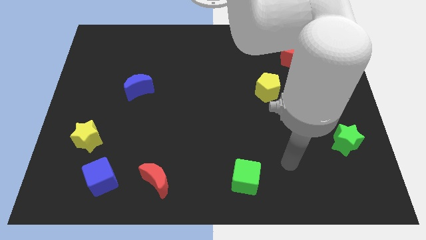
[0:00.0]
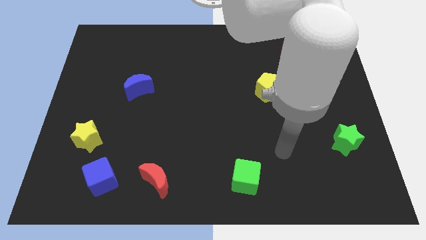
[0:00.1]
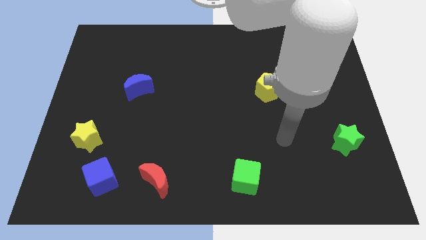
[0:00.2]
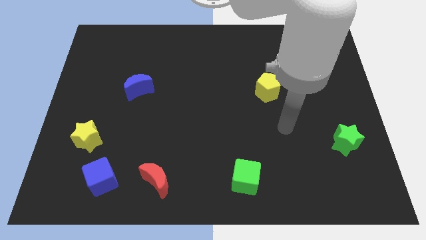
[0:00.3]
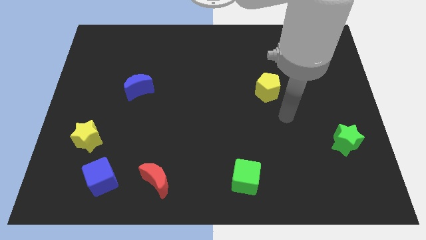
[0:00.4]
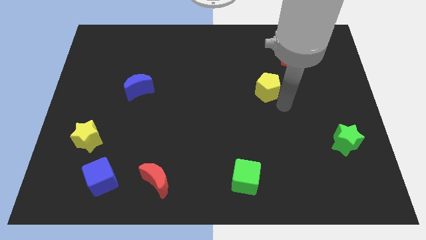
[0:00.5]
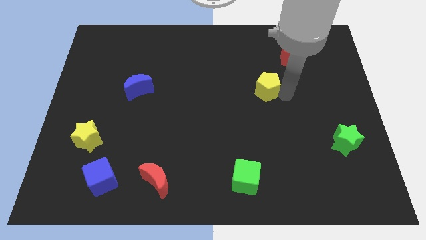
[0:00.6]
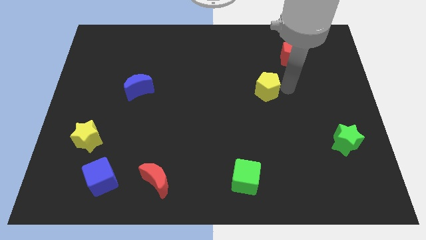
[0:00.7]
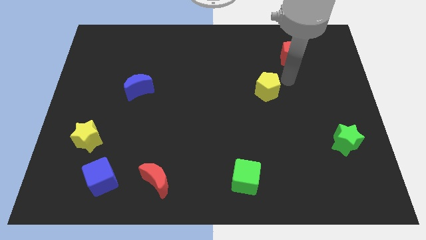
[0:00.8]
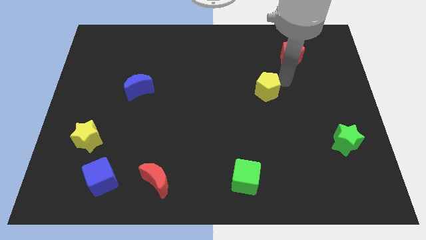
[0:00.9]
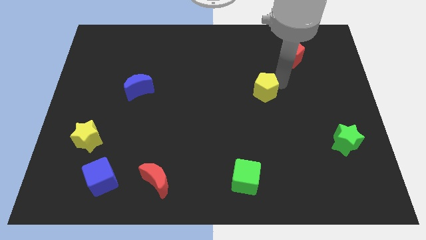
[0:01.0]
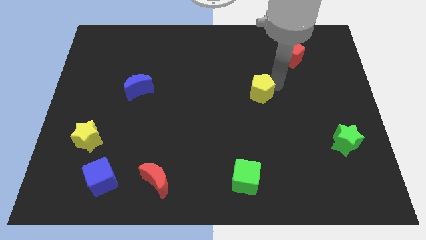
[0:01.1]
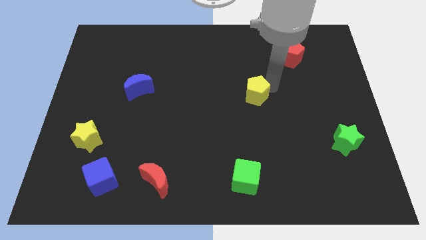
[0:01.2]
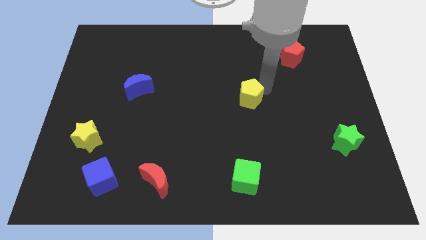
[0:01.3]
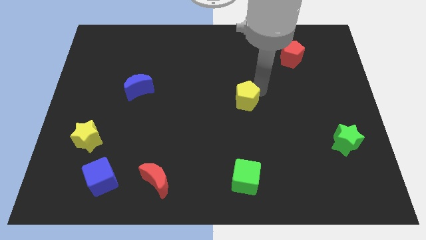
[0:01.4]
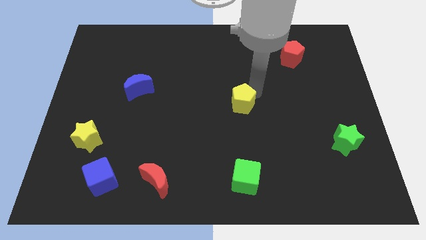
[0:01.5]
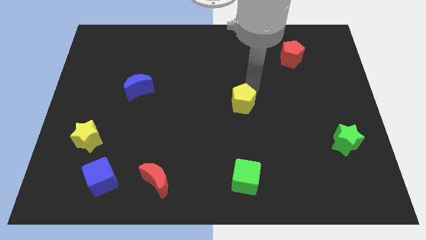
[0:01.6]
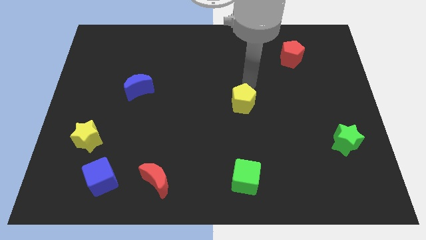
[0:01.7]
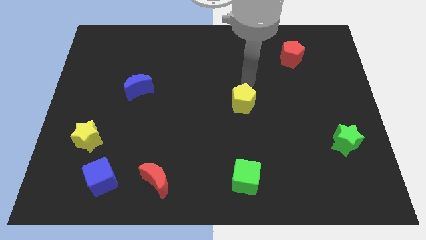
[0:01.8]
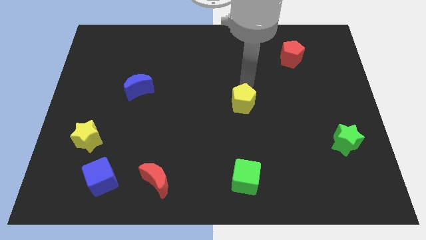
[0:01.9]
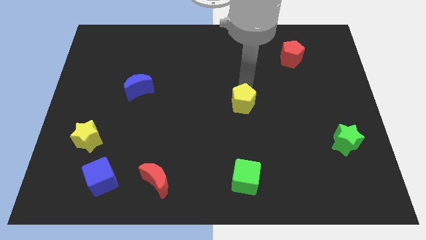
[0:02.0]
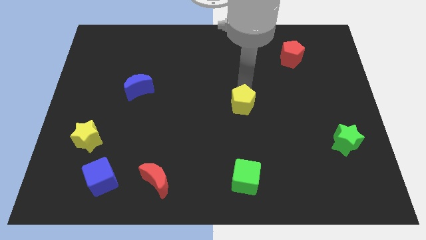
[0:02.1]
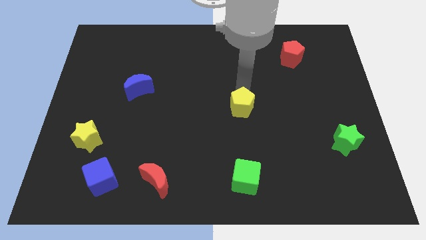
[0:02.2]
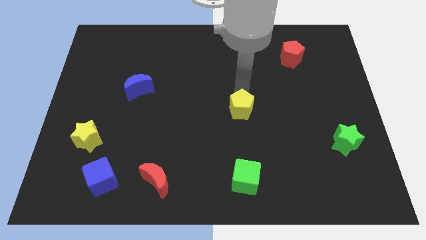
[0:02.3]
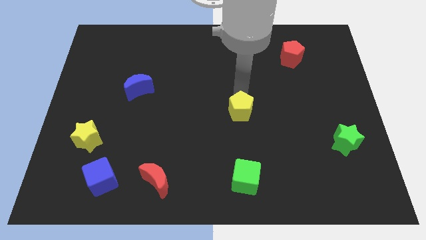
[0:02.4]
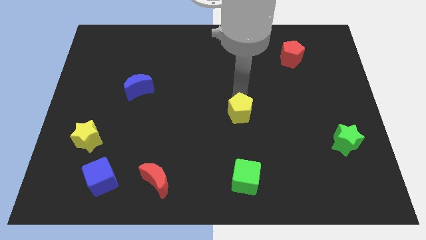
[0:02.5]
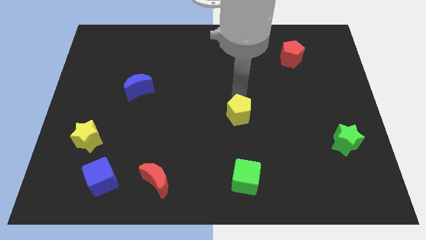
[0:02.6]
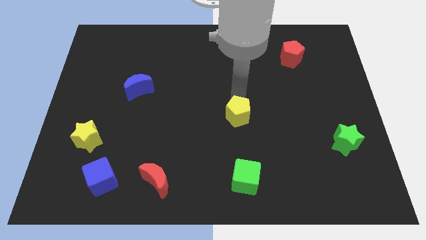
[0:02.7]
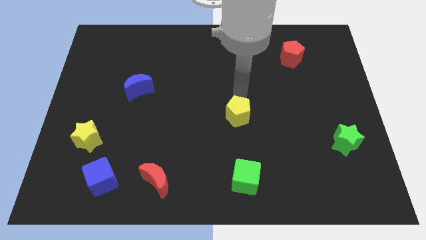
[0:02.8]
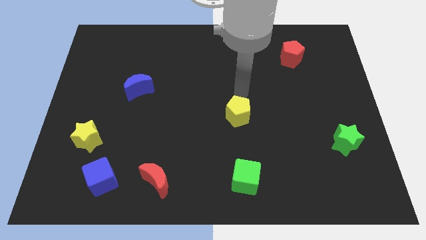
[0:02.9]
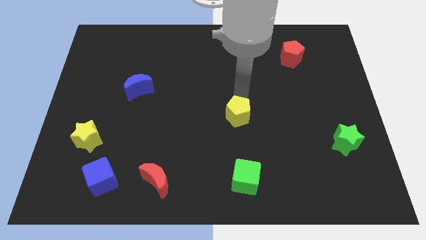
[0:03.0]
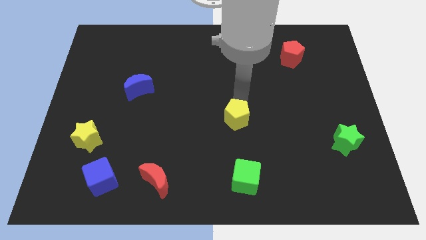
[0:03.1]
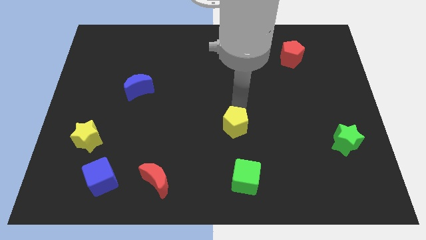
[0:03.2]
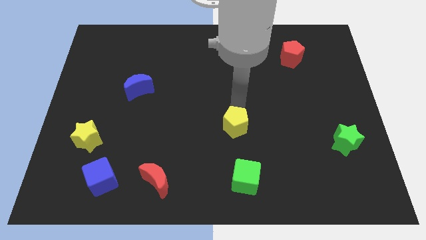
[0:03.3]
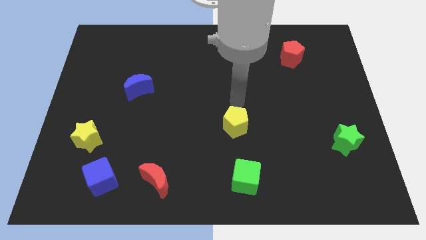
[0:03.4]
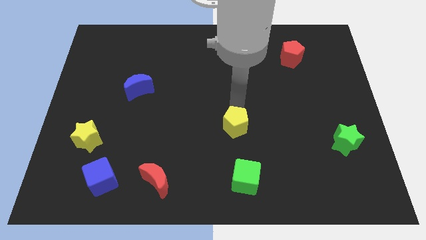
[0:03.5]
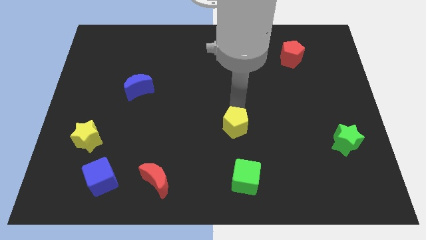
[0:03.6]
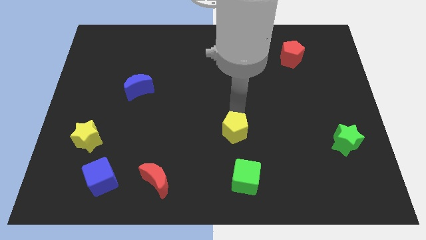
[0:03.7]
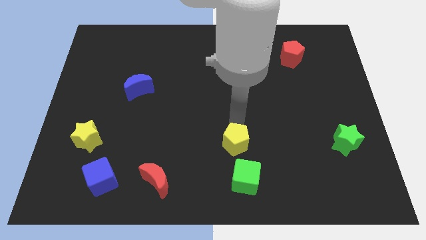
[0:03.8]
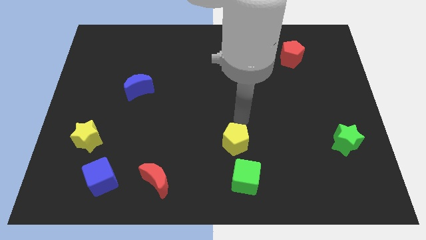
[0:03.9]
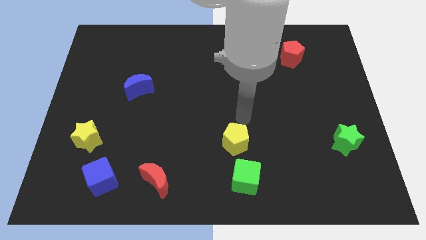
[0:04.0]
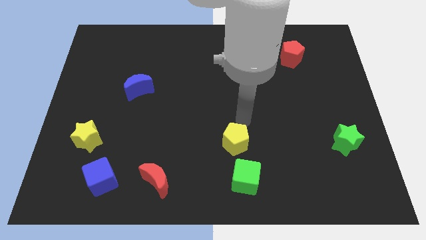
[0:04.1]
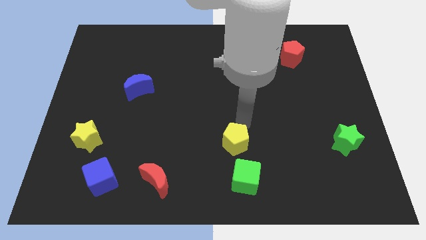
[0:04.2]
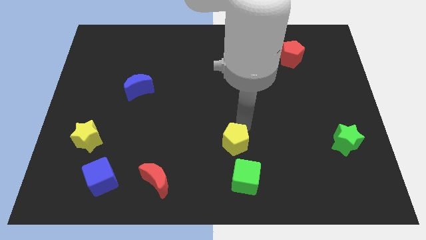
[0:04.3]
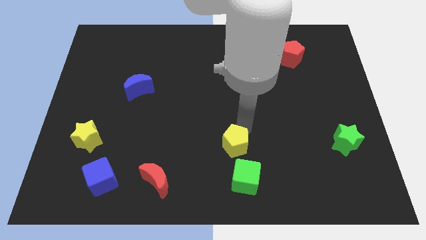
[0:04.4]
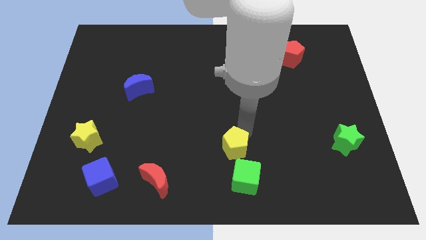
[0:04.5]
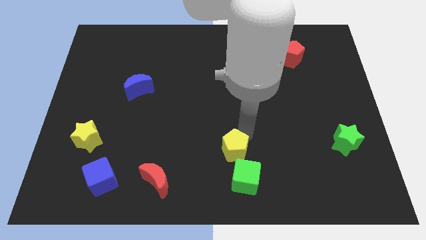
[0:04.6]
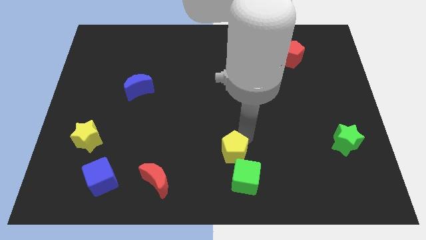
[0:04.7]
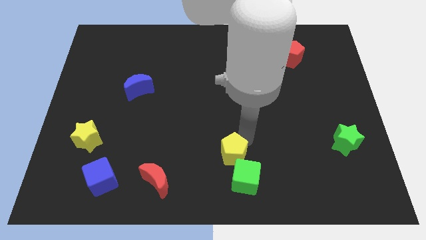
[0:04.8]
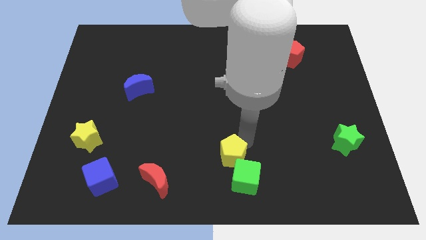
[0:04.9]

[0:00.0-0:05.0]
push the yellow pentagon to the bottom side

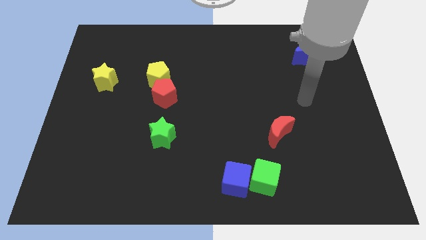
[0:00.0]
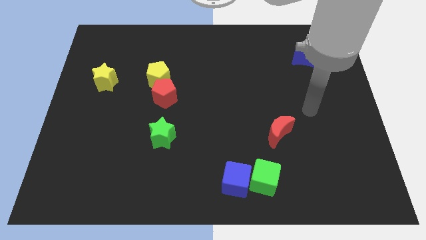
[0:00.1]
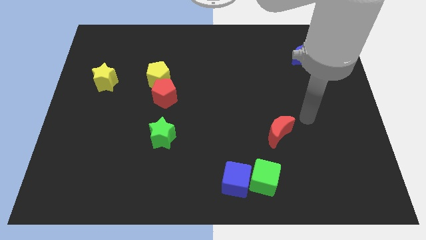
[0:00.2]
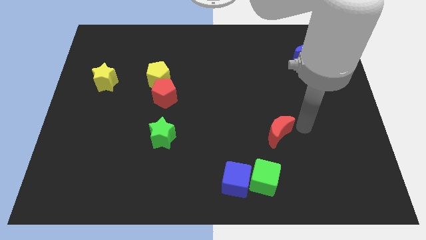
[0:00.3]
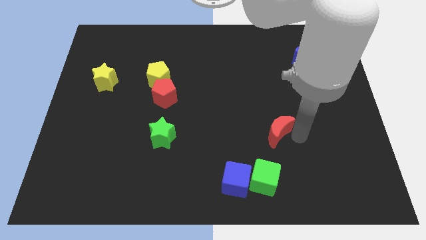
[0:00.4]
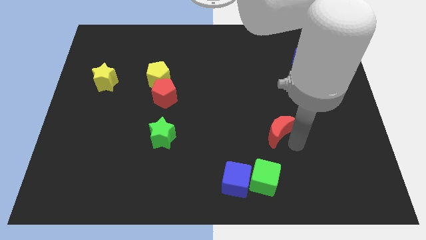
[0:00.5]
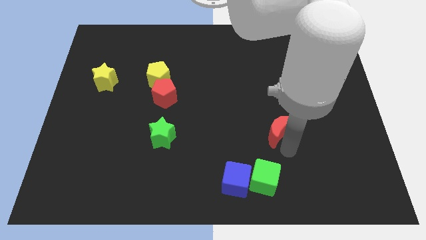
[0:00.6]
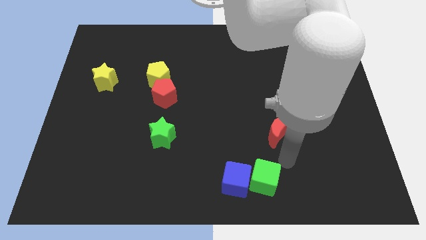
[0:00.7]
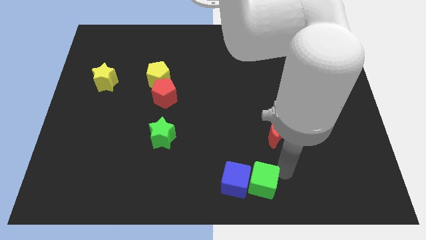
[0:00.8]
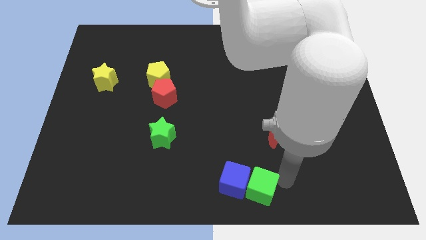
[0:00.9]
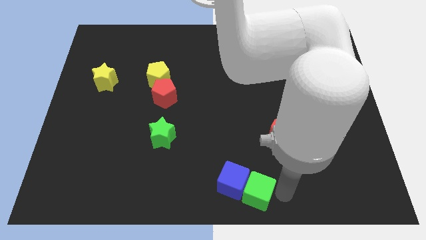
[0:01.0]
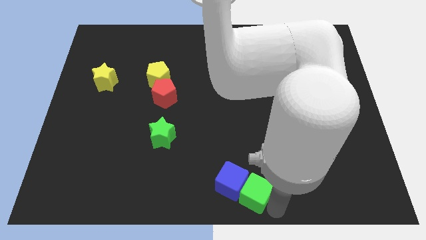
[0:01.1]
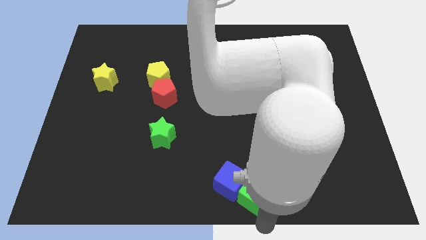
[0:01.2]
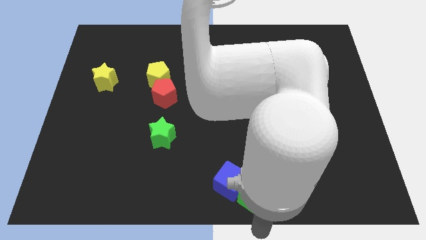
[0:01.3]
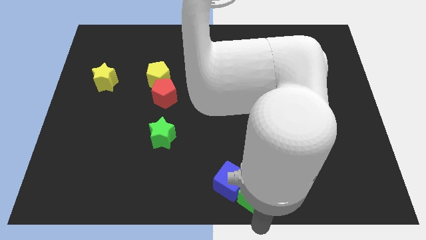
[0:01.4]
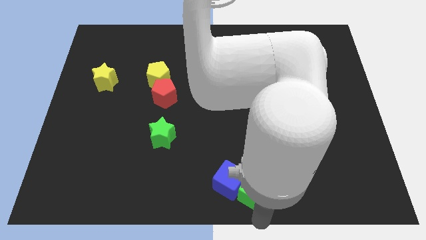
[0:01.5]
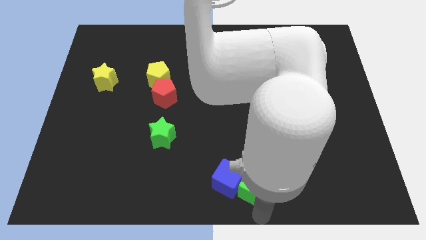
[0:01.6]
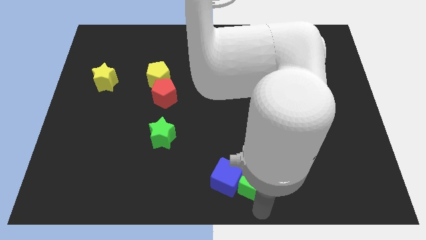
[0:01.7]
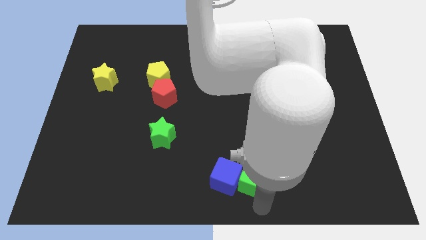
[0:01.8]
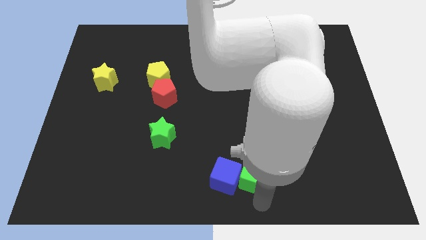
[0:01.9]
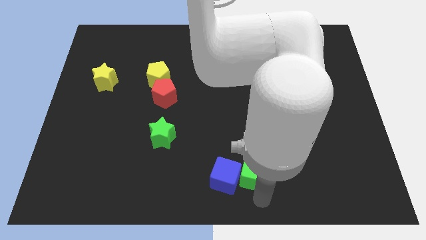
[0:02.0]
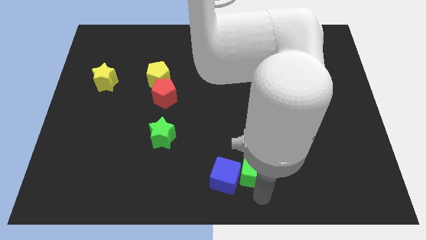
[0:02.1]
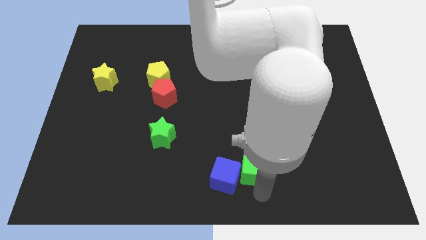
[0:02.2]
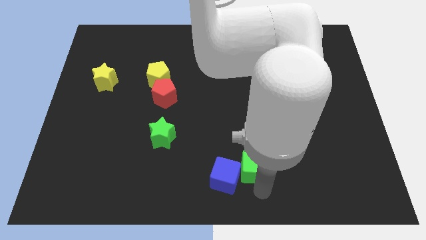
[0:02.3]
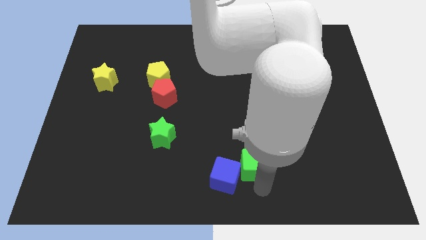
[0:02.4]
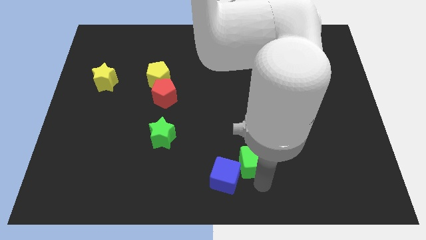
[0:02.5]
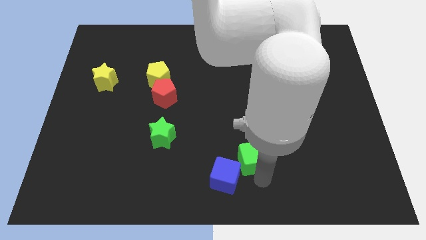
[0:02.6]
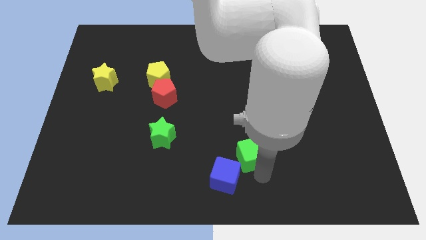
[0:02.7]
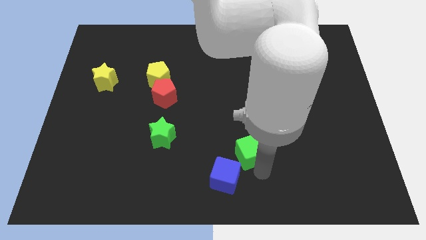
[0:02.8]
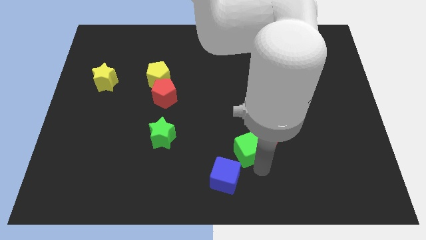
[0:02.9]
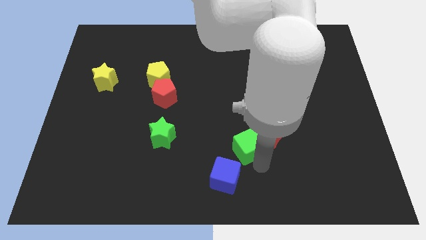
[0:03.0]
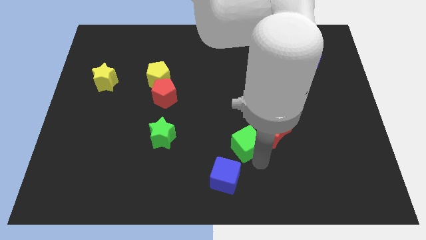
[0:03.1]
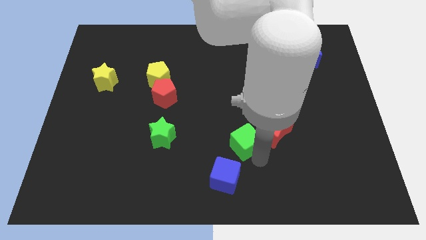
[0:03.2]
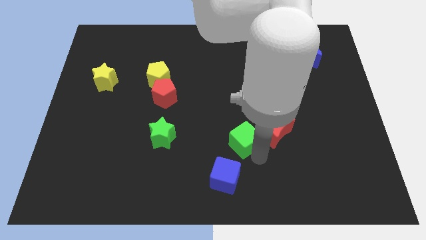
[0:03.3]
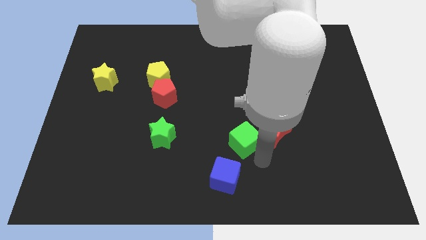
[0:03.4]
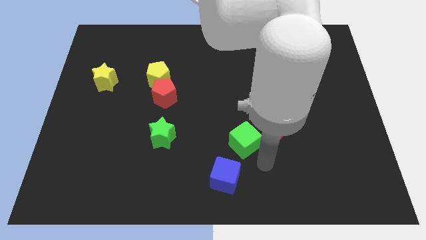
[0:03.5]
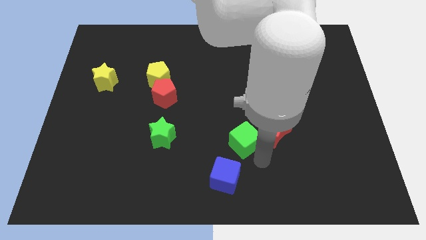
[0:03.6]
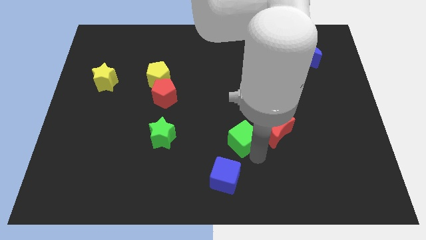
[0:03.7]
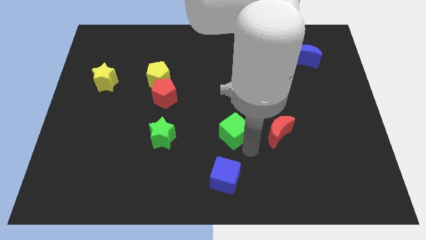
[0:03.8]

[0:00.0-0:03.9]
push the green cube to the middle of the board
